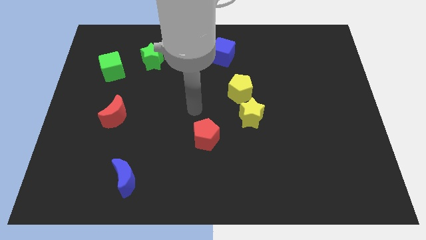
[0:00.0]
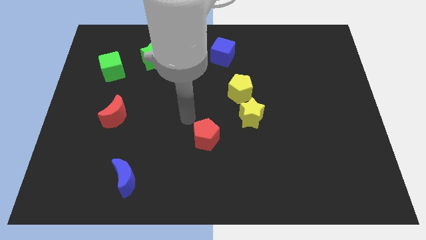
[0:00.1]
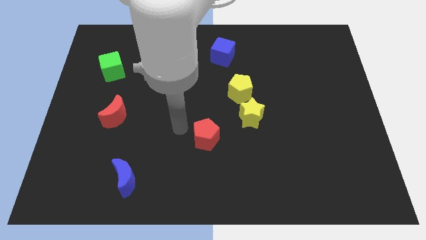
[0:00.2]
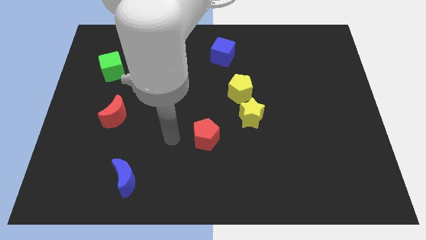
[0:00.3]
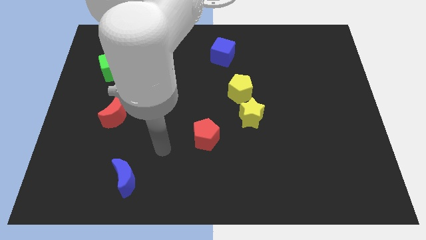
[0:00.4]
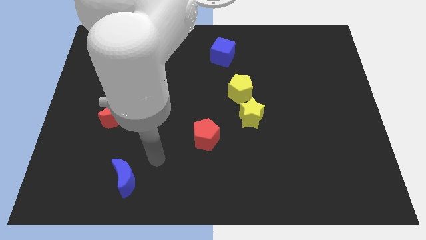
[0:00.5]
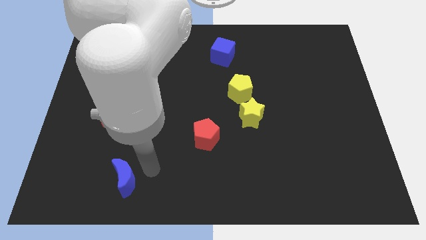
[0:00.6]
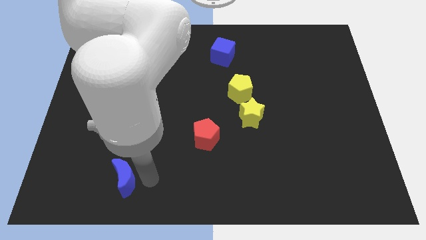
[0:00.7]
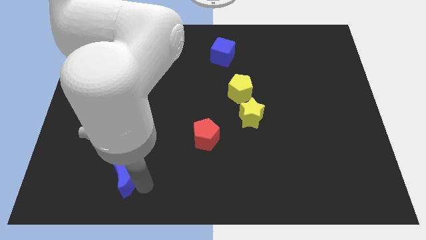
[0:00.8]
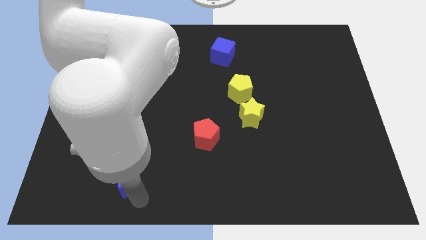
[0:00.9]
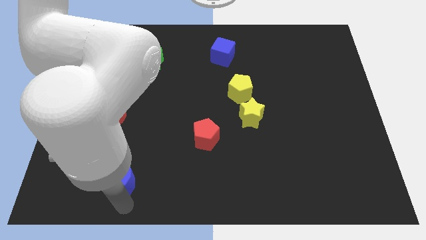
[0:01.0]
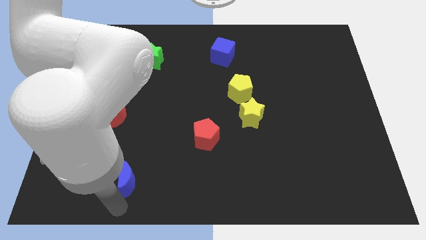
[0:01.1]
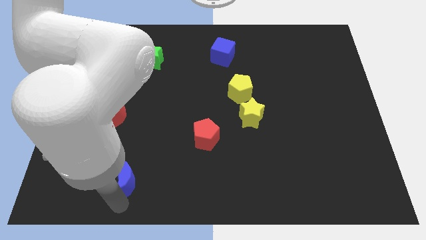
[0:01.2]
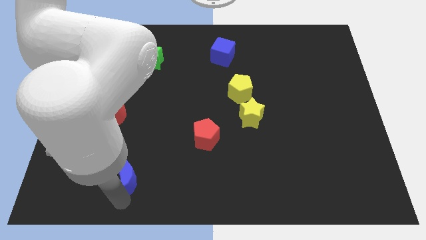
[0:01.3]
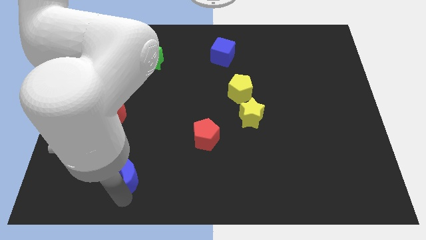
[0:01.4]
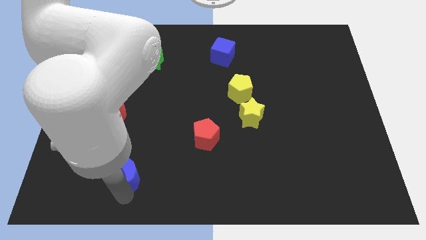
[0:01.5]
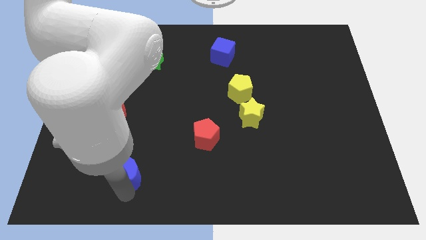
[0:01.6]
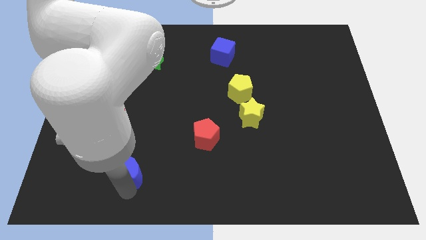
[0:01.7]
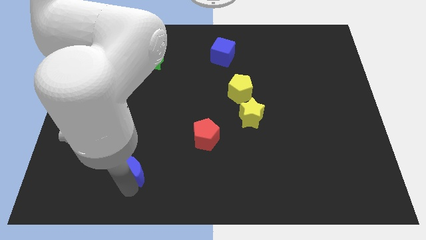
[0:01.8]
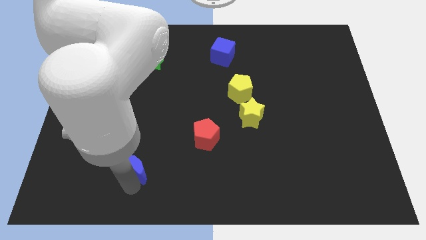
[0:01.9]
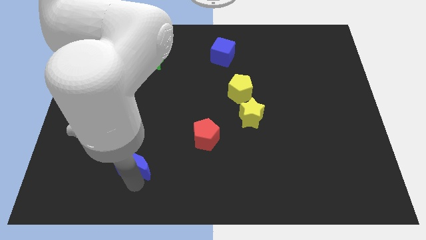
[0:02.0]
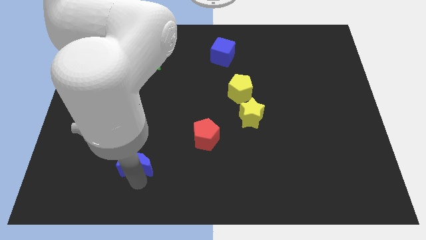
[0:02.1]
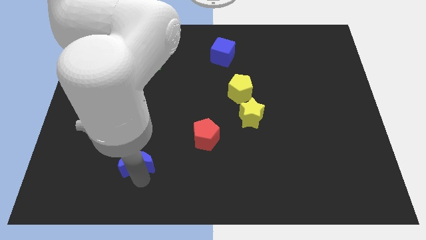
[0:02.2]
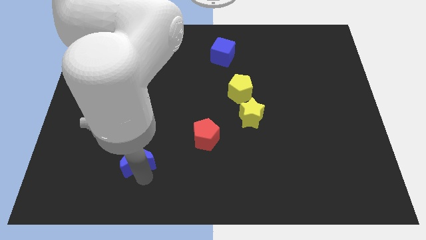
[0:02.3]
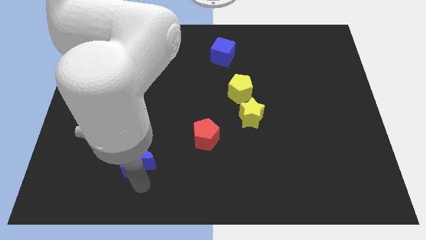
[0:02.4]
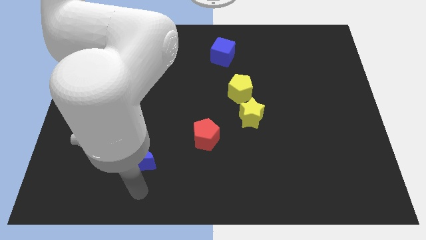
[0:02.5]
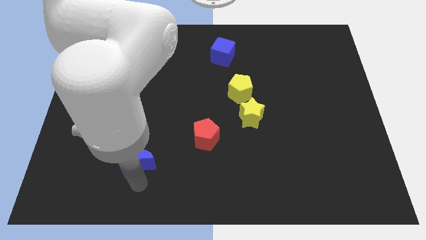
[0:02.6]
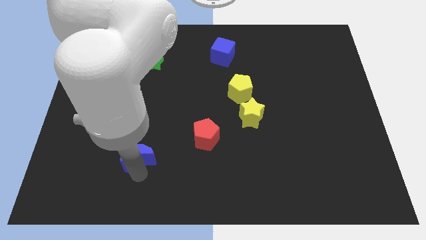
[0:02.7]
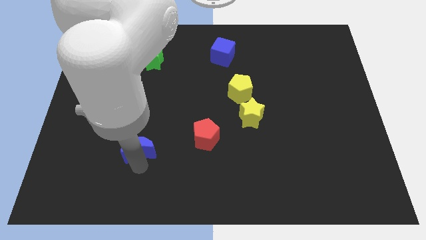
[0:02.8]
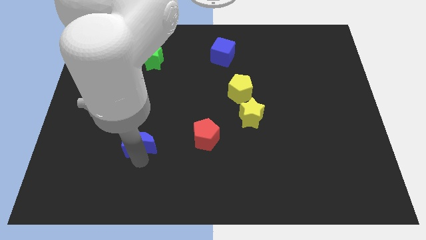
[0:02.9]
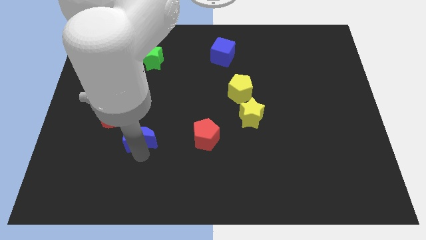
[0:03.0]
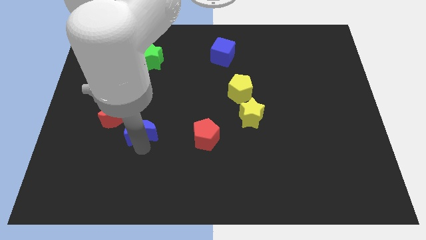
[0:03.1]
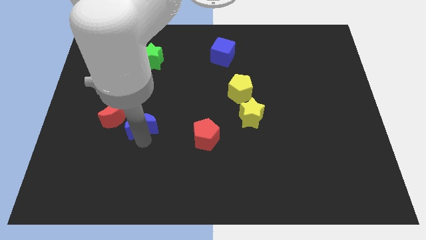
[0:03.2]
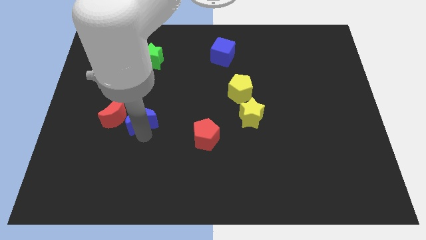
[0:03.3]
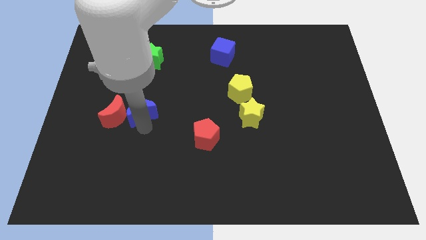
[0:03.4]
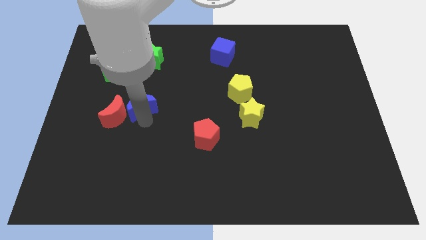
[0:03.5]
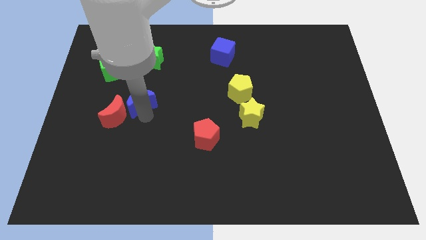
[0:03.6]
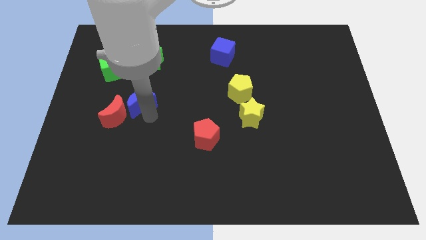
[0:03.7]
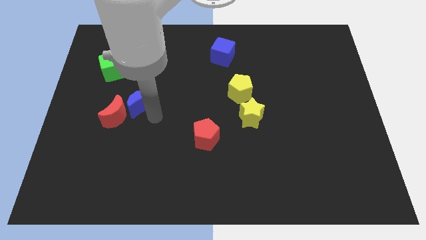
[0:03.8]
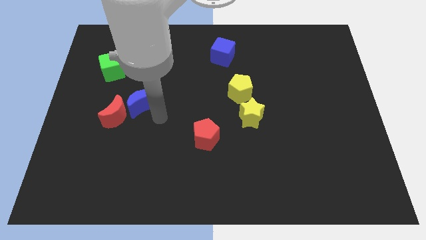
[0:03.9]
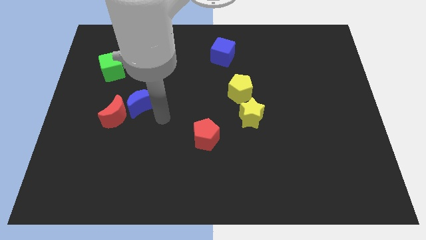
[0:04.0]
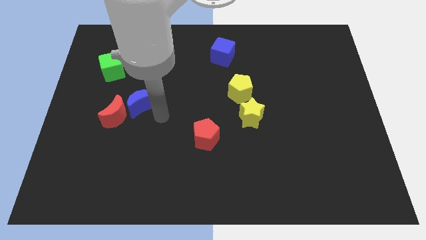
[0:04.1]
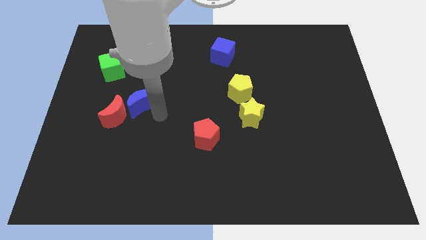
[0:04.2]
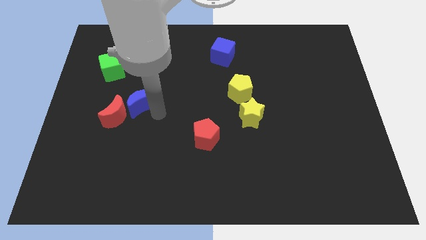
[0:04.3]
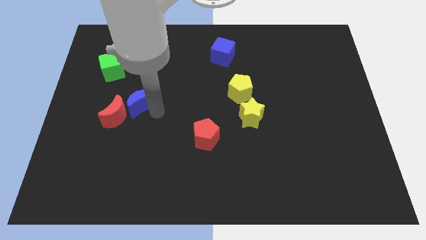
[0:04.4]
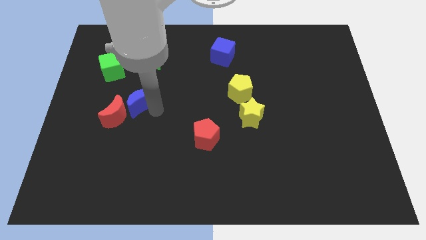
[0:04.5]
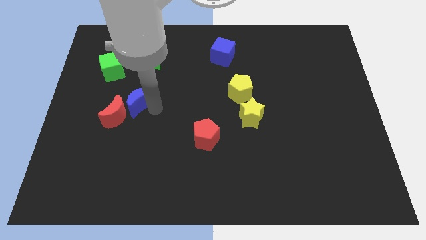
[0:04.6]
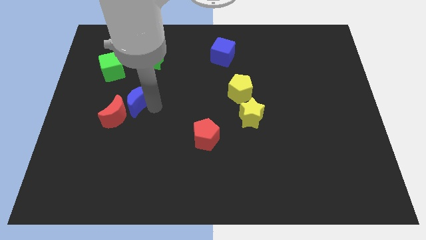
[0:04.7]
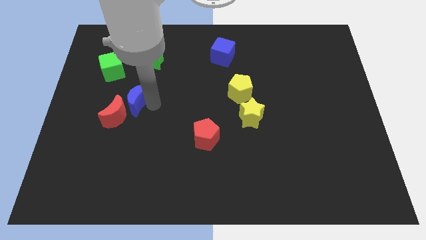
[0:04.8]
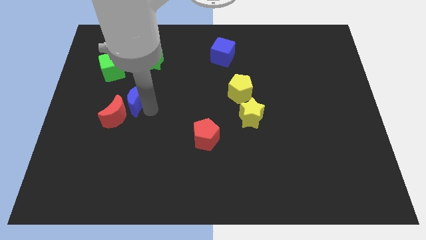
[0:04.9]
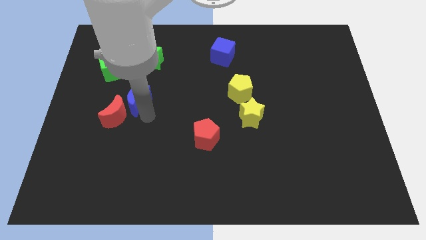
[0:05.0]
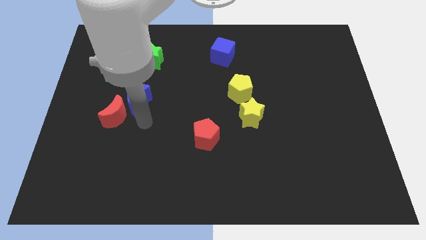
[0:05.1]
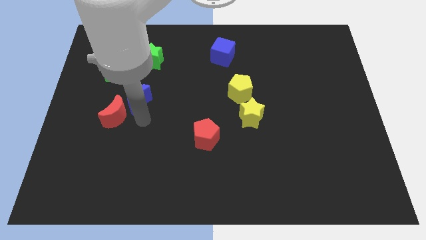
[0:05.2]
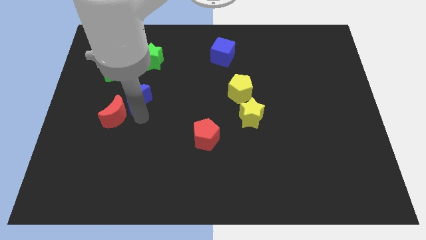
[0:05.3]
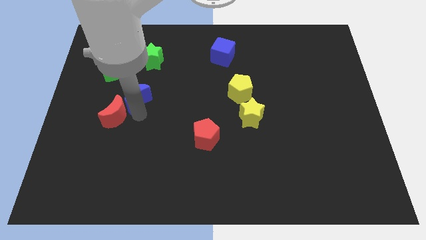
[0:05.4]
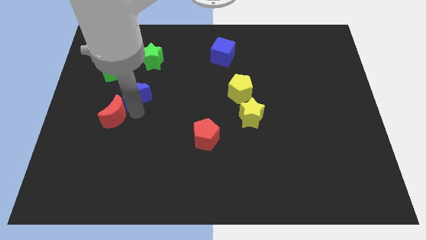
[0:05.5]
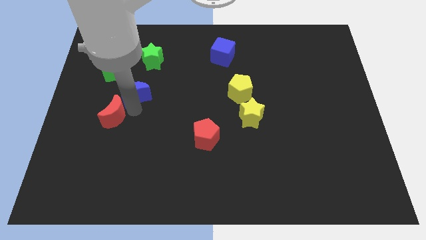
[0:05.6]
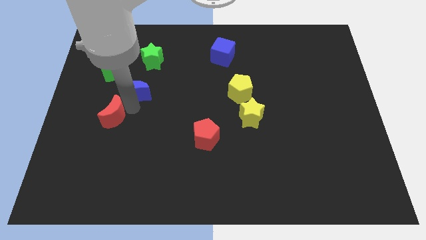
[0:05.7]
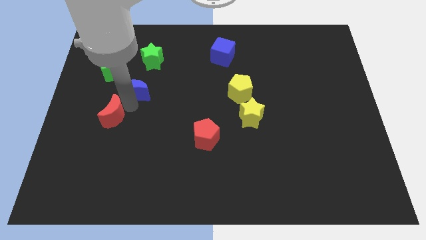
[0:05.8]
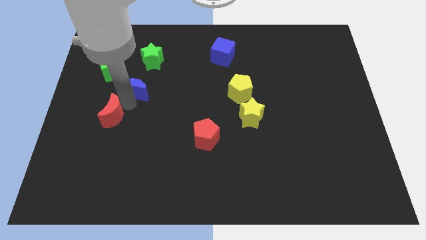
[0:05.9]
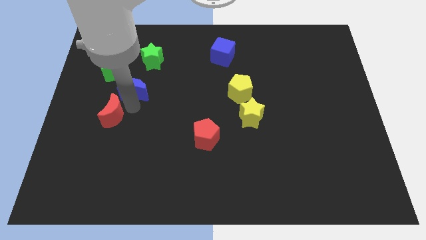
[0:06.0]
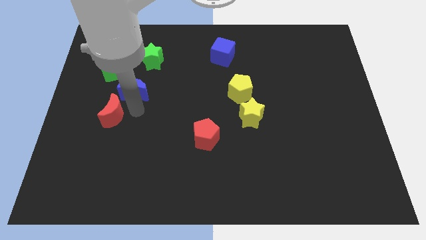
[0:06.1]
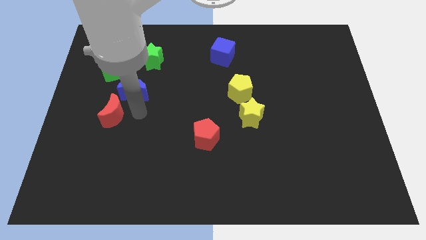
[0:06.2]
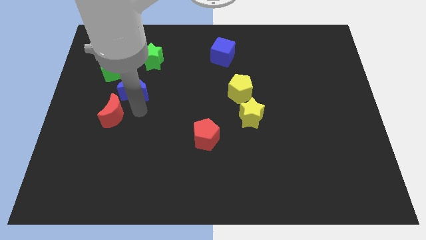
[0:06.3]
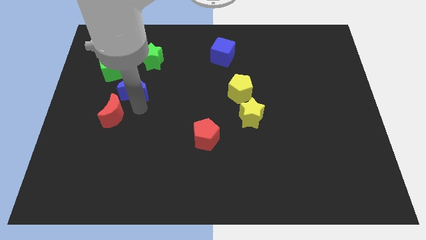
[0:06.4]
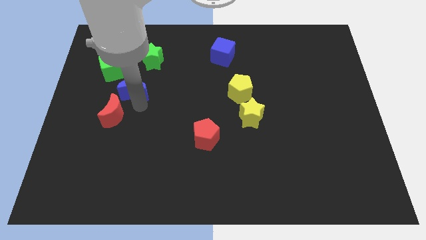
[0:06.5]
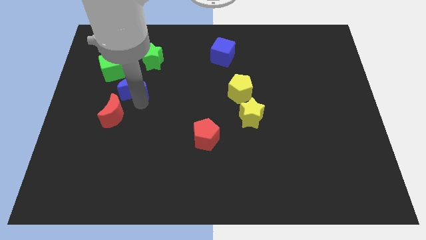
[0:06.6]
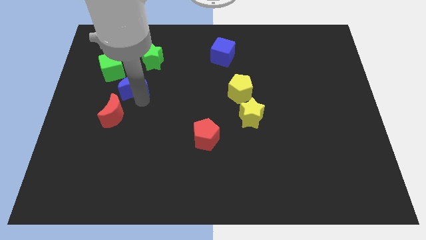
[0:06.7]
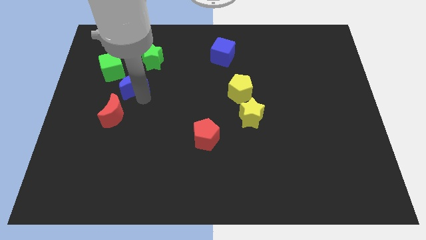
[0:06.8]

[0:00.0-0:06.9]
move the blue moon to the bottom left side of the green star

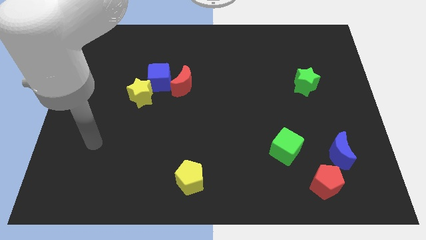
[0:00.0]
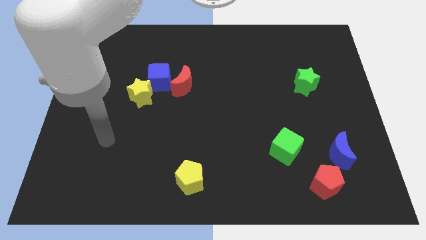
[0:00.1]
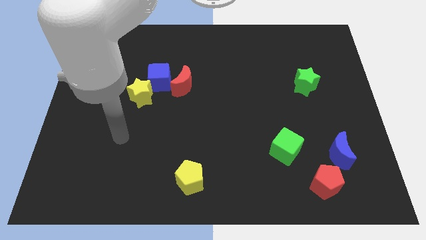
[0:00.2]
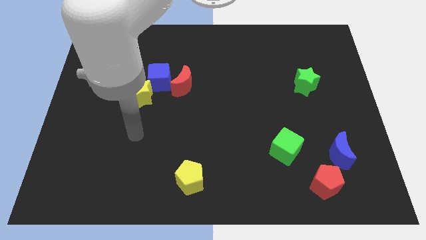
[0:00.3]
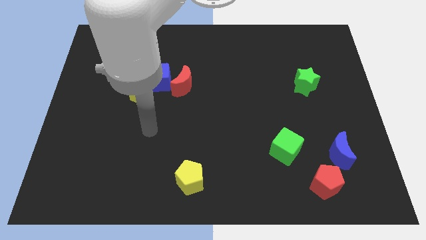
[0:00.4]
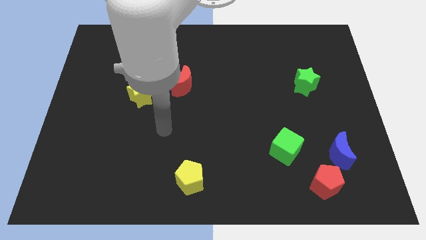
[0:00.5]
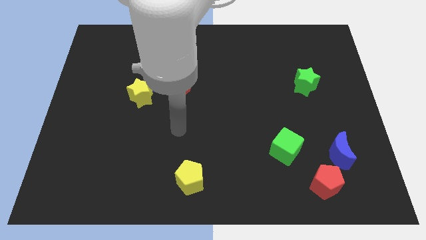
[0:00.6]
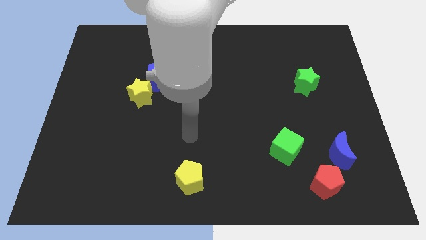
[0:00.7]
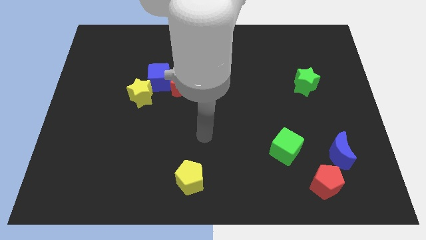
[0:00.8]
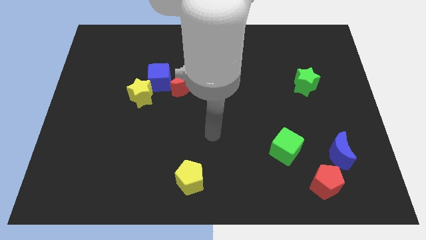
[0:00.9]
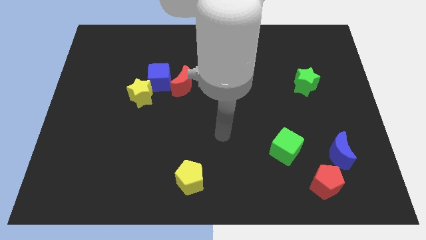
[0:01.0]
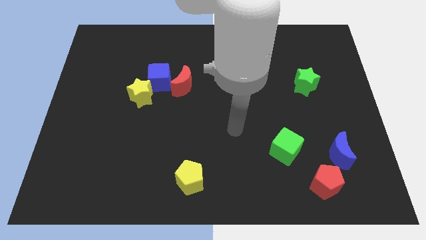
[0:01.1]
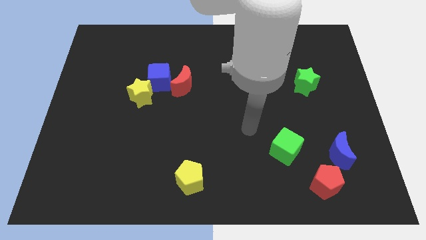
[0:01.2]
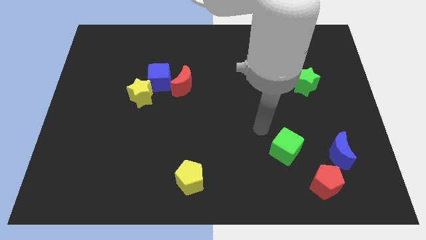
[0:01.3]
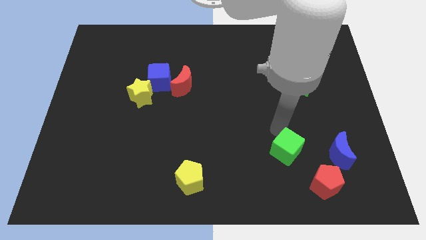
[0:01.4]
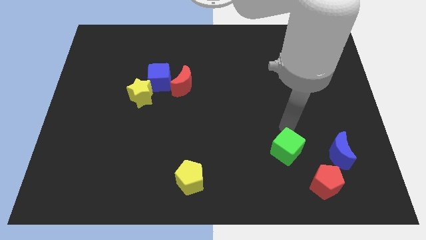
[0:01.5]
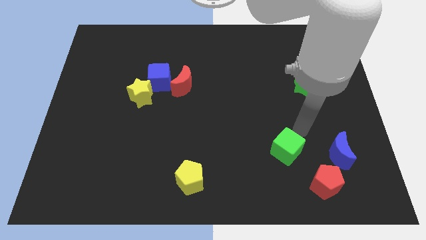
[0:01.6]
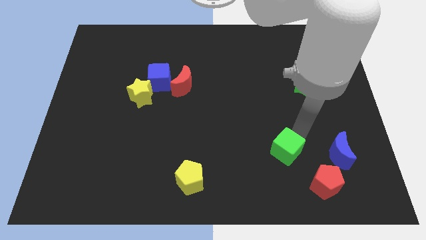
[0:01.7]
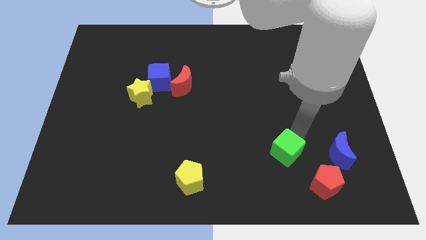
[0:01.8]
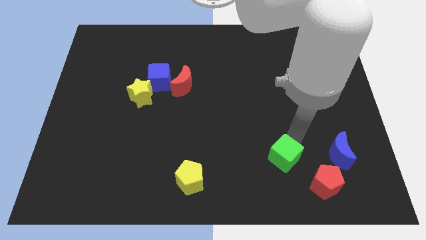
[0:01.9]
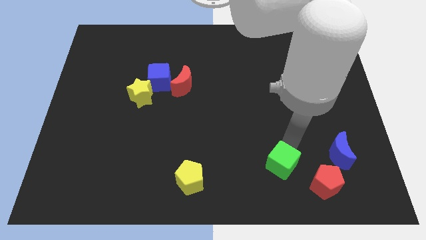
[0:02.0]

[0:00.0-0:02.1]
put the green cube to the left side of the red pentagon
